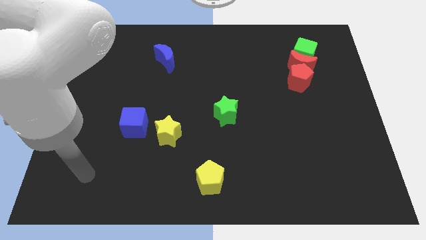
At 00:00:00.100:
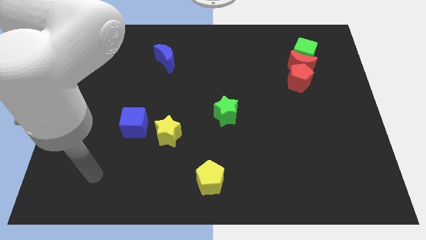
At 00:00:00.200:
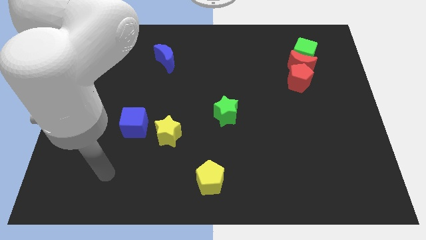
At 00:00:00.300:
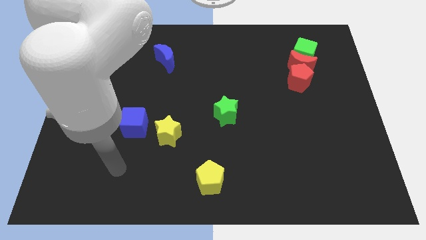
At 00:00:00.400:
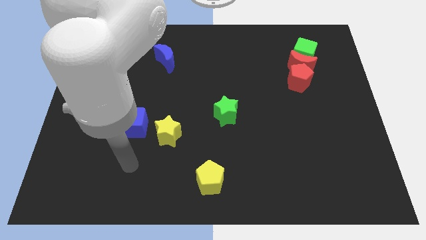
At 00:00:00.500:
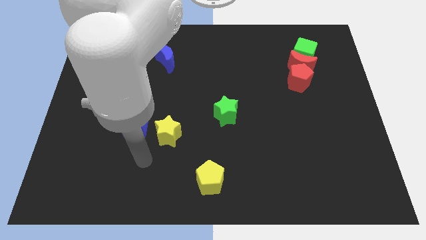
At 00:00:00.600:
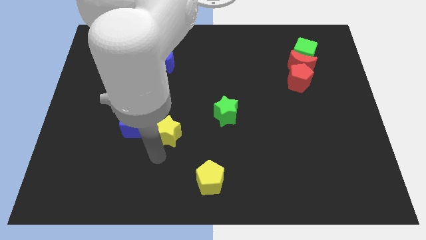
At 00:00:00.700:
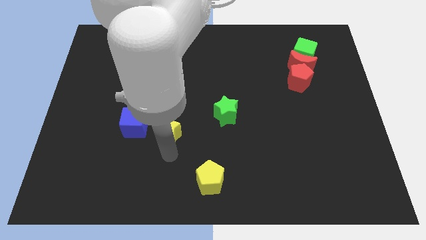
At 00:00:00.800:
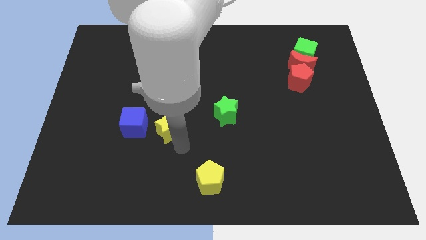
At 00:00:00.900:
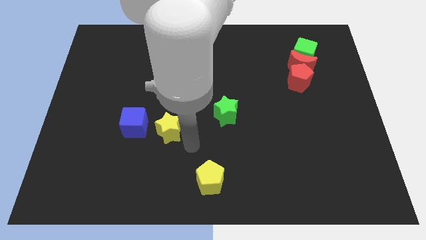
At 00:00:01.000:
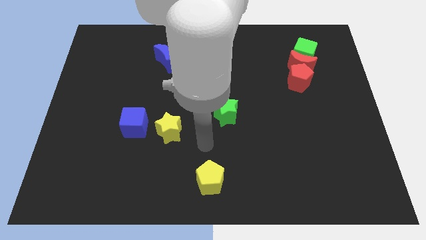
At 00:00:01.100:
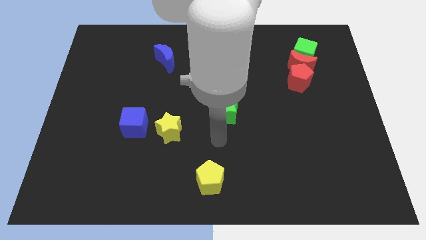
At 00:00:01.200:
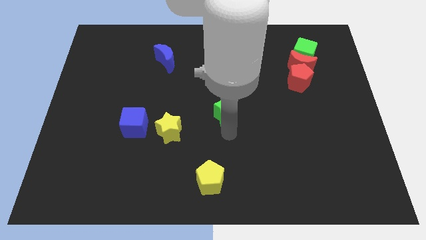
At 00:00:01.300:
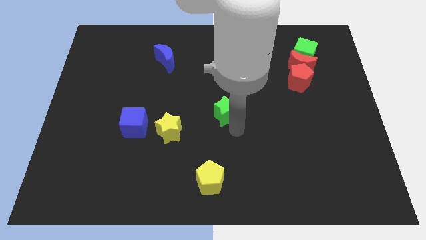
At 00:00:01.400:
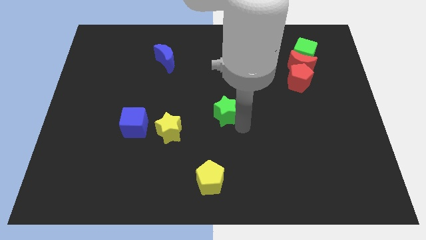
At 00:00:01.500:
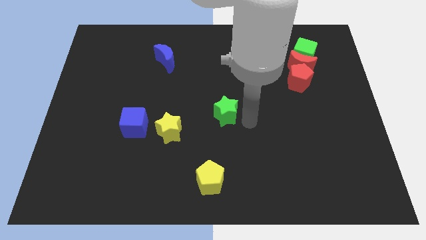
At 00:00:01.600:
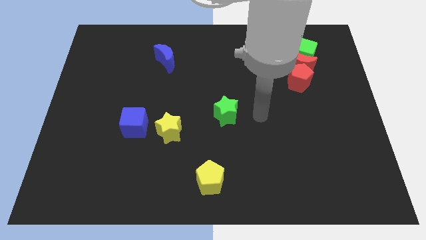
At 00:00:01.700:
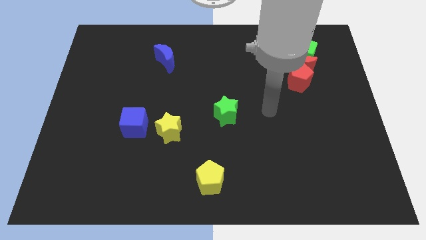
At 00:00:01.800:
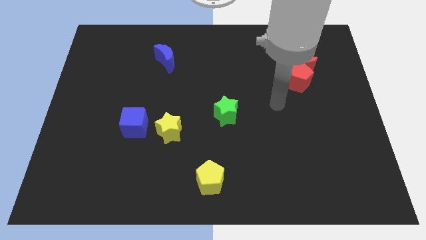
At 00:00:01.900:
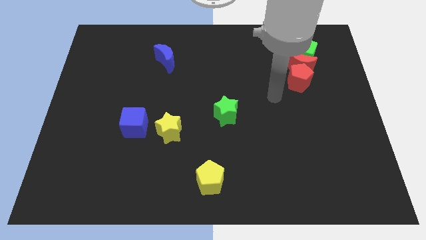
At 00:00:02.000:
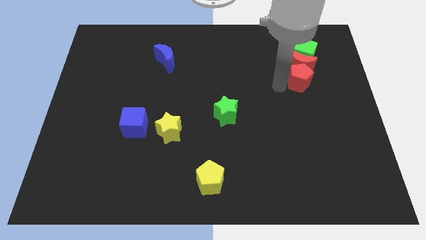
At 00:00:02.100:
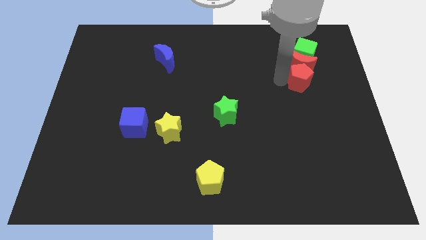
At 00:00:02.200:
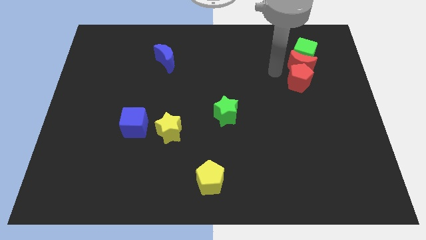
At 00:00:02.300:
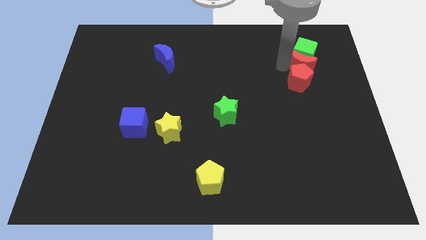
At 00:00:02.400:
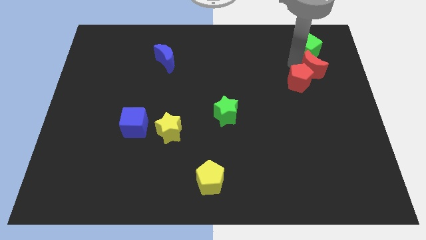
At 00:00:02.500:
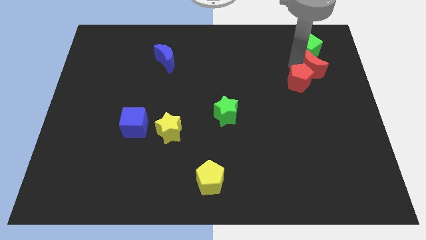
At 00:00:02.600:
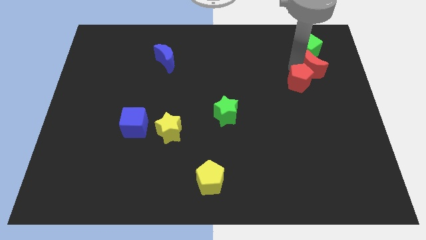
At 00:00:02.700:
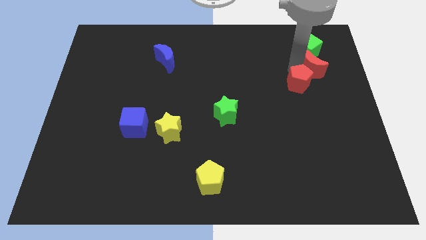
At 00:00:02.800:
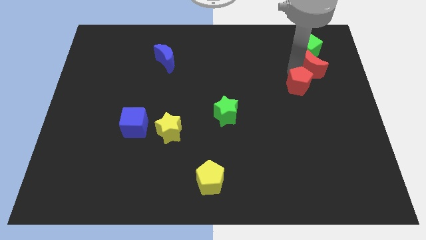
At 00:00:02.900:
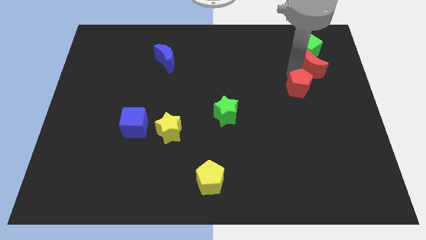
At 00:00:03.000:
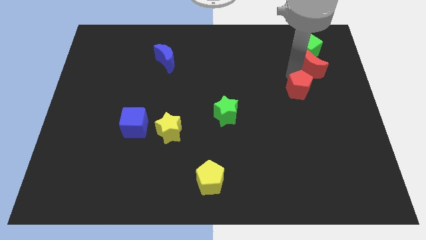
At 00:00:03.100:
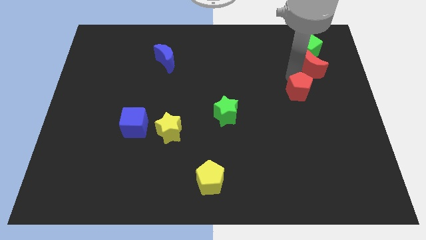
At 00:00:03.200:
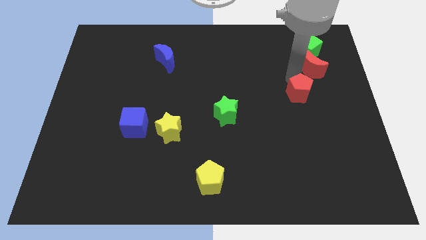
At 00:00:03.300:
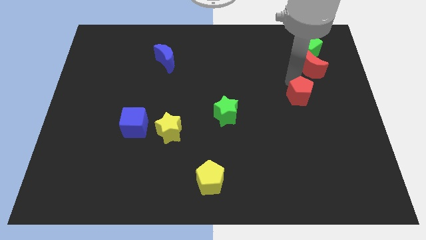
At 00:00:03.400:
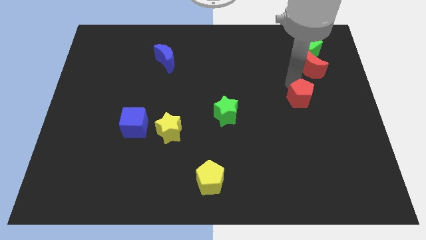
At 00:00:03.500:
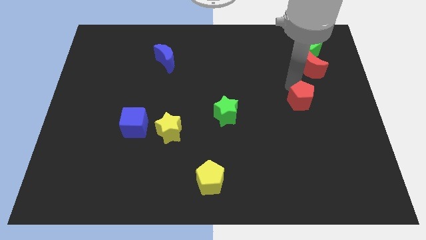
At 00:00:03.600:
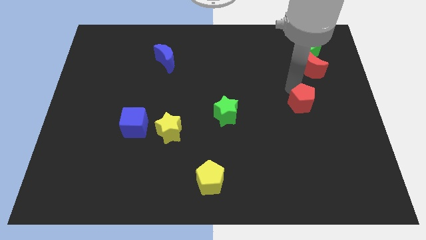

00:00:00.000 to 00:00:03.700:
slightly move the red pentagon down

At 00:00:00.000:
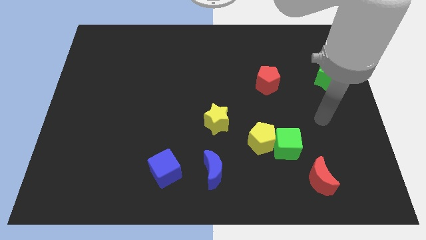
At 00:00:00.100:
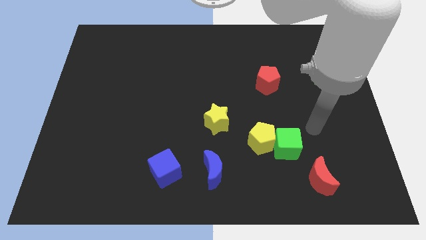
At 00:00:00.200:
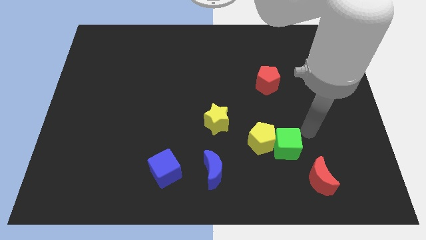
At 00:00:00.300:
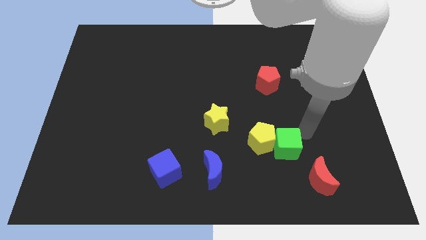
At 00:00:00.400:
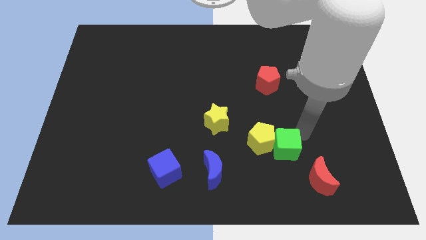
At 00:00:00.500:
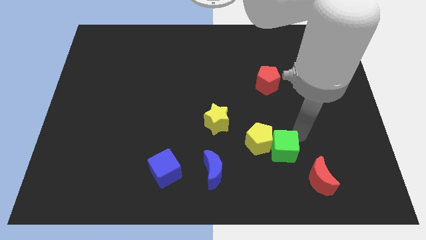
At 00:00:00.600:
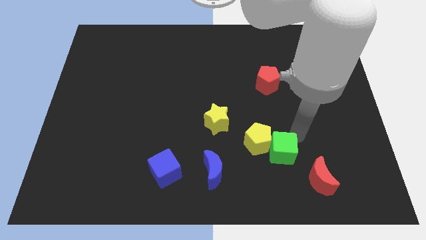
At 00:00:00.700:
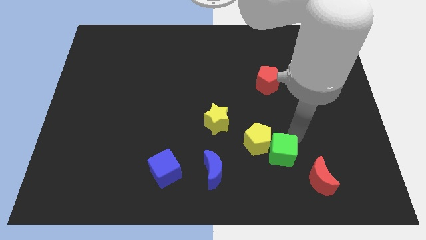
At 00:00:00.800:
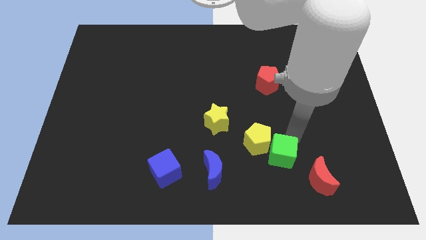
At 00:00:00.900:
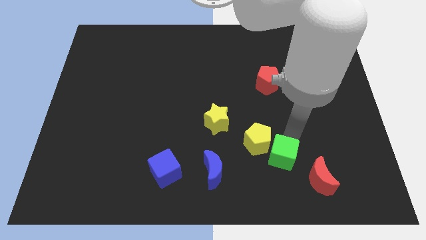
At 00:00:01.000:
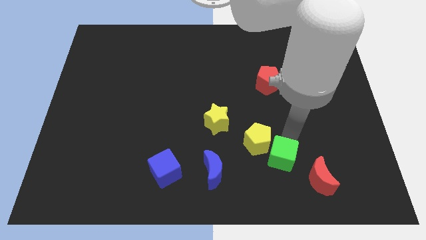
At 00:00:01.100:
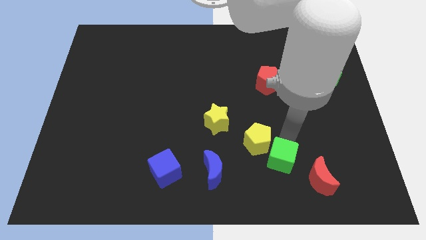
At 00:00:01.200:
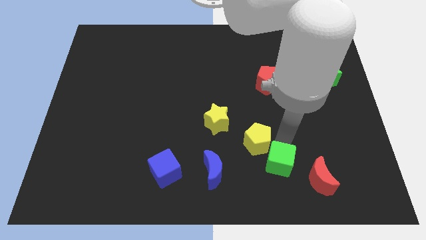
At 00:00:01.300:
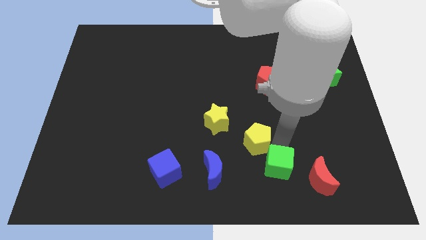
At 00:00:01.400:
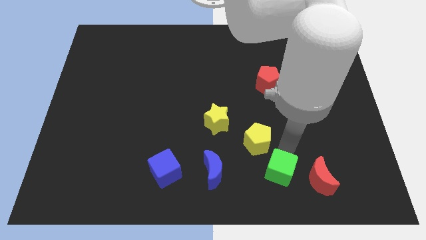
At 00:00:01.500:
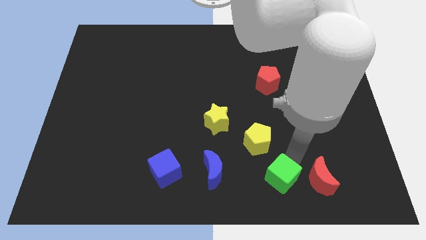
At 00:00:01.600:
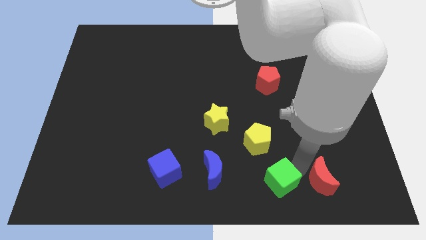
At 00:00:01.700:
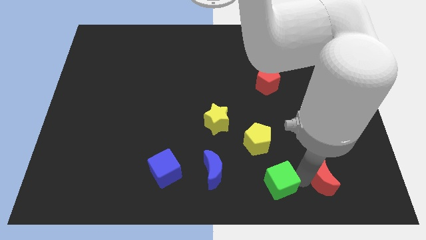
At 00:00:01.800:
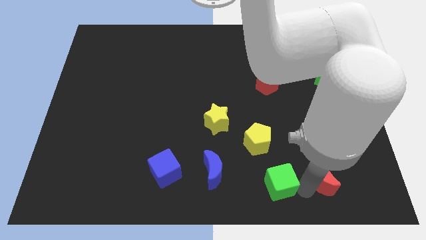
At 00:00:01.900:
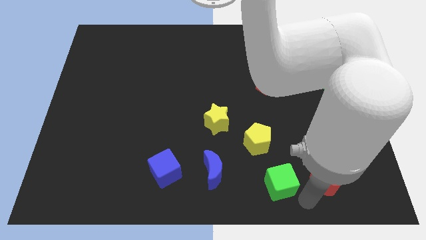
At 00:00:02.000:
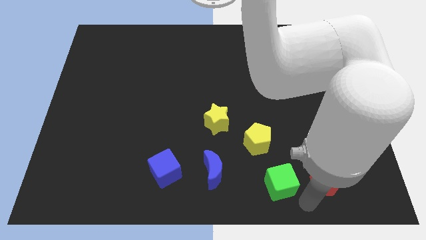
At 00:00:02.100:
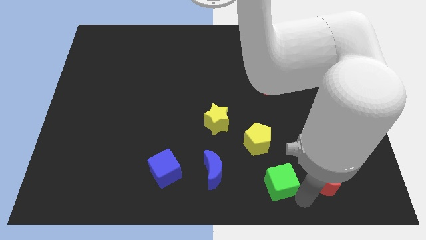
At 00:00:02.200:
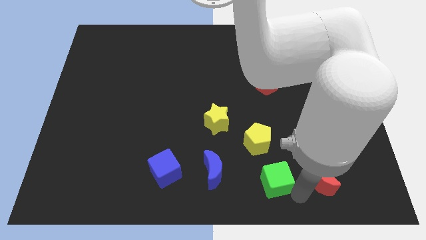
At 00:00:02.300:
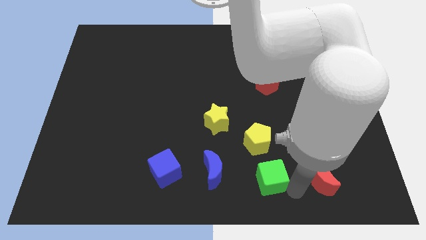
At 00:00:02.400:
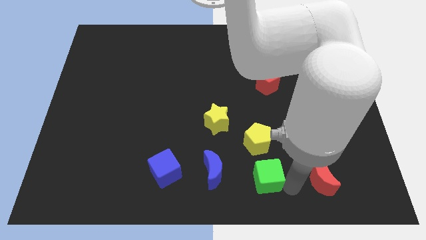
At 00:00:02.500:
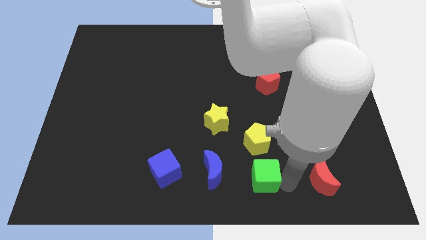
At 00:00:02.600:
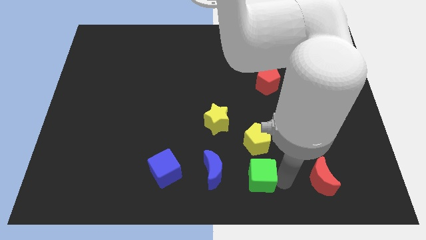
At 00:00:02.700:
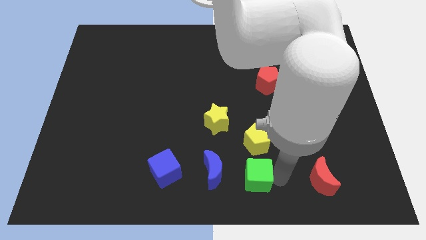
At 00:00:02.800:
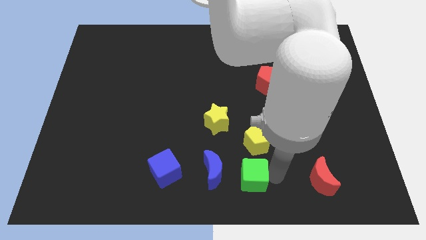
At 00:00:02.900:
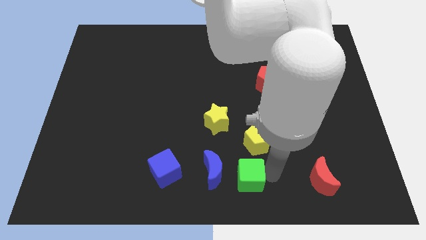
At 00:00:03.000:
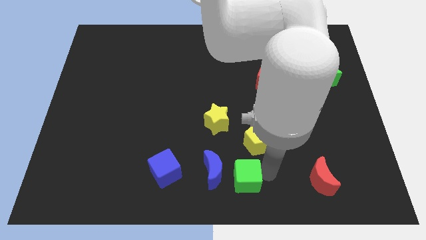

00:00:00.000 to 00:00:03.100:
push the green cube slightly left

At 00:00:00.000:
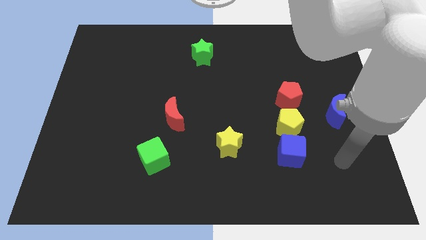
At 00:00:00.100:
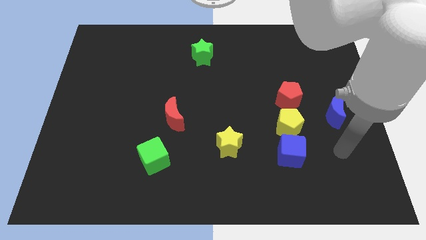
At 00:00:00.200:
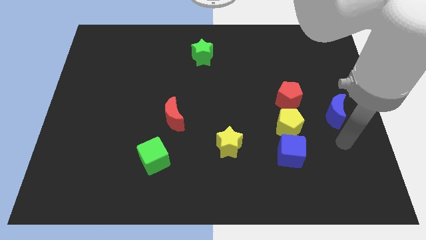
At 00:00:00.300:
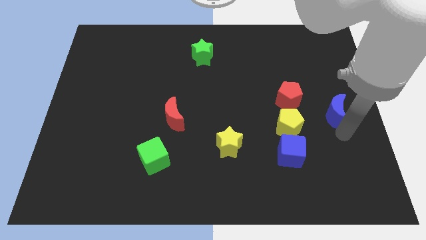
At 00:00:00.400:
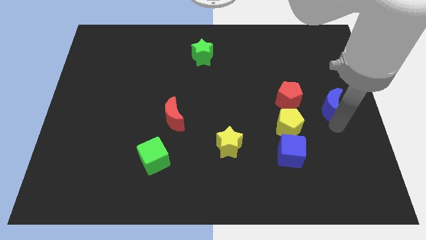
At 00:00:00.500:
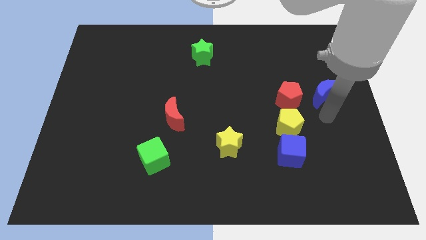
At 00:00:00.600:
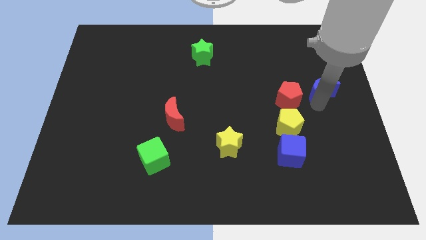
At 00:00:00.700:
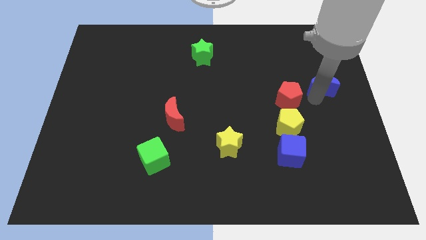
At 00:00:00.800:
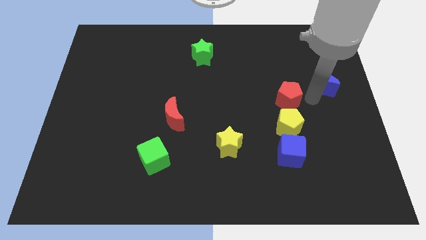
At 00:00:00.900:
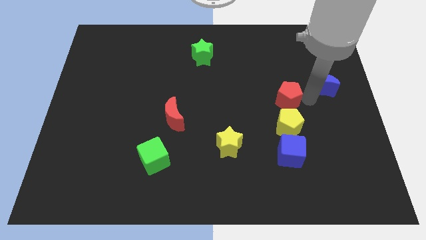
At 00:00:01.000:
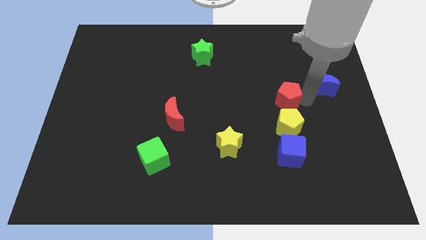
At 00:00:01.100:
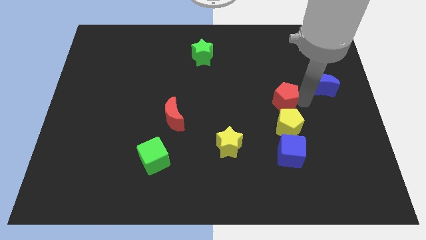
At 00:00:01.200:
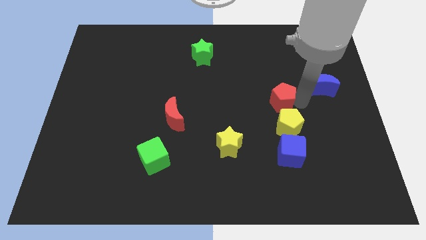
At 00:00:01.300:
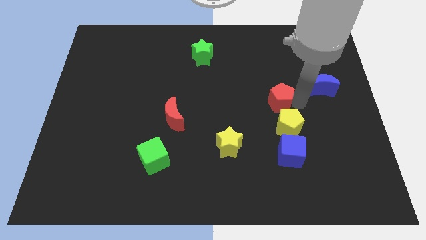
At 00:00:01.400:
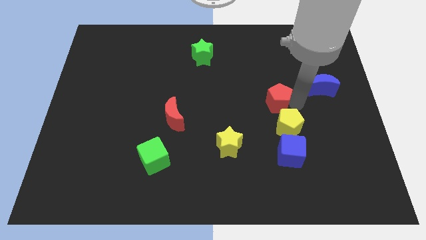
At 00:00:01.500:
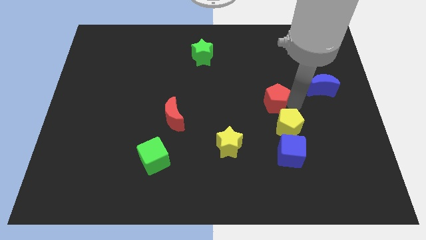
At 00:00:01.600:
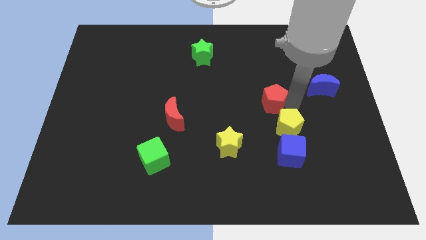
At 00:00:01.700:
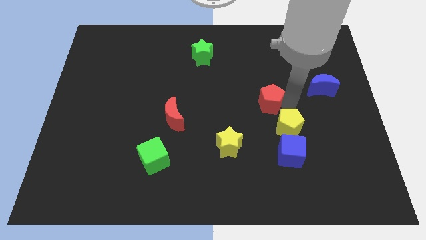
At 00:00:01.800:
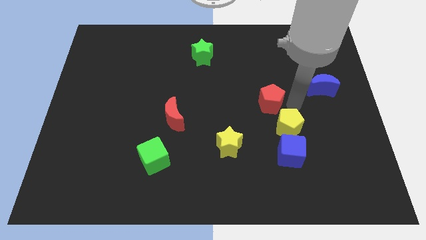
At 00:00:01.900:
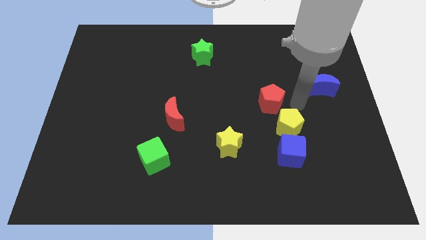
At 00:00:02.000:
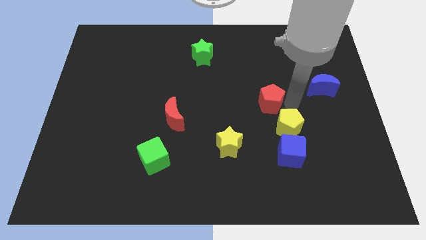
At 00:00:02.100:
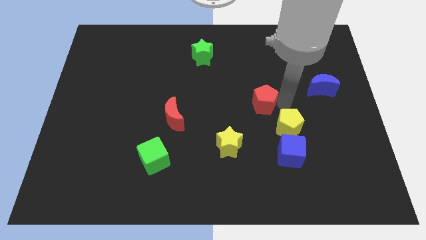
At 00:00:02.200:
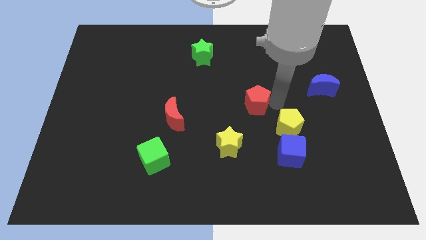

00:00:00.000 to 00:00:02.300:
slide the red pentagon left a little
